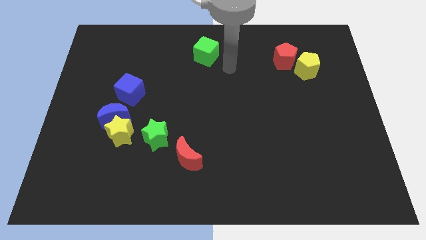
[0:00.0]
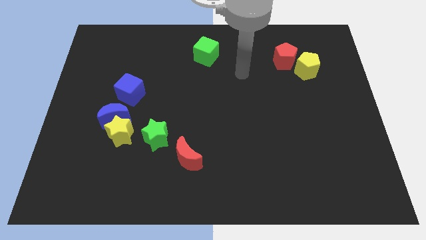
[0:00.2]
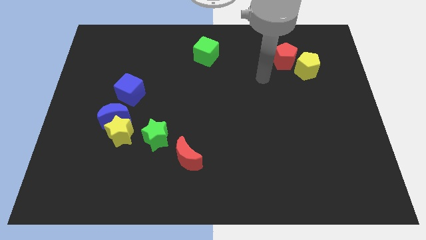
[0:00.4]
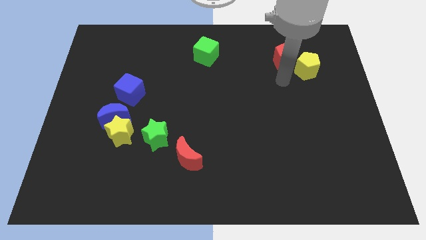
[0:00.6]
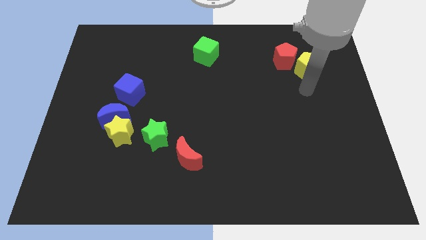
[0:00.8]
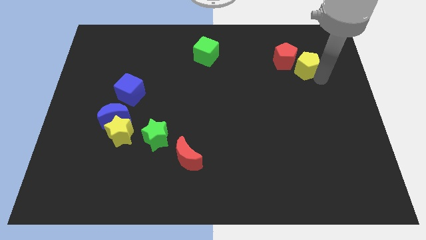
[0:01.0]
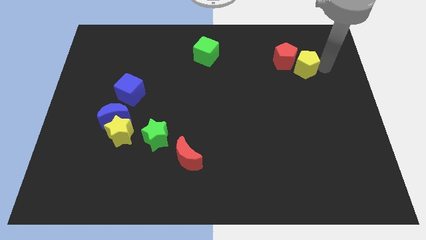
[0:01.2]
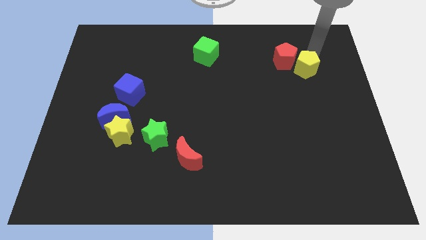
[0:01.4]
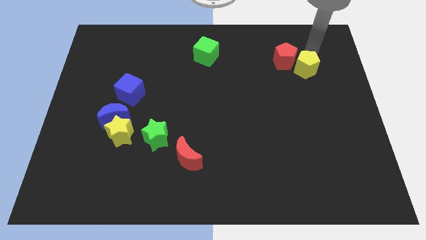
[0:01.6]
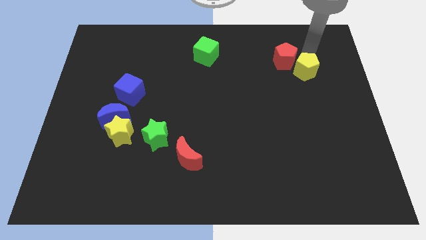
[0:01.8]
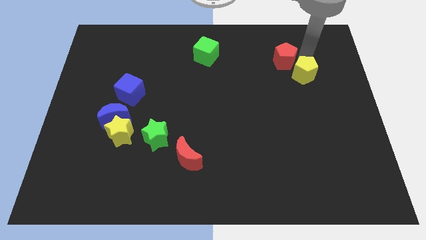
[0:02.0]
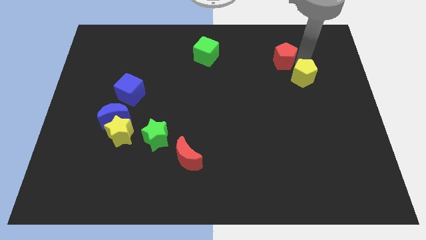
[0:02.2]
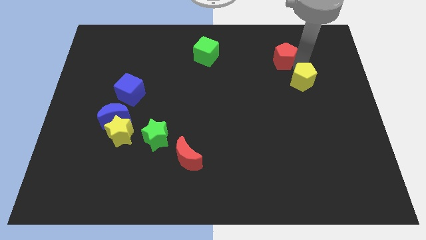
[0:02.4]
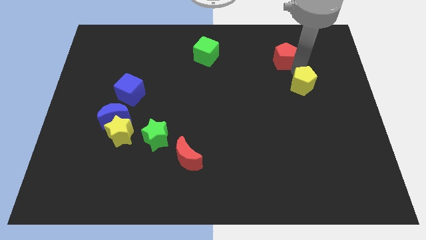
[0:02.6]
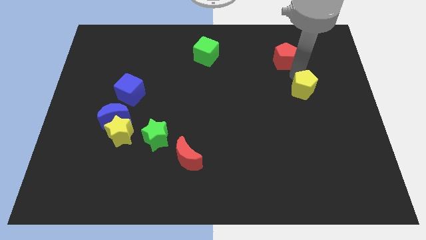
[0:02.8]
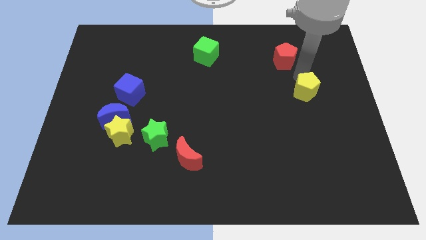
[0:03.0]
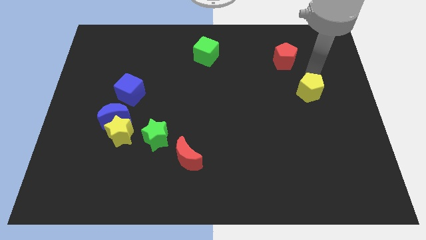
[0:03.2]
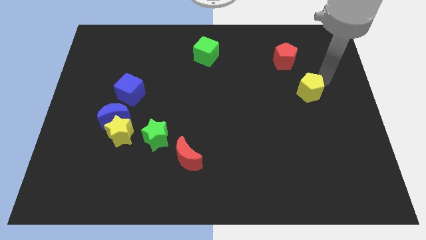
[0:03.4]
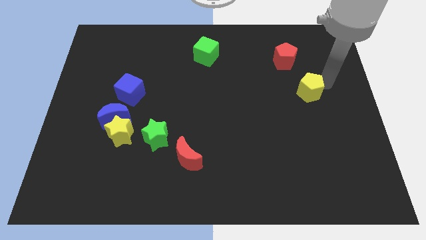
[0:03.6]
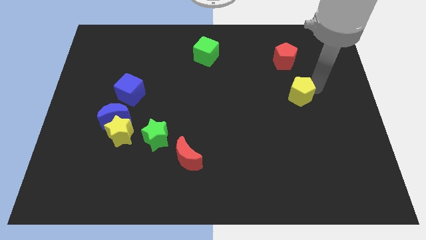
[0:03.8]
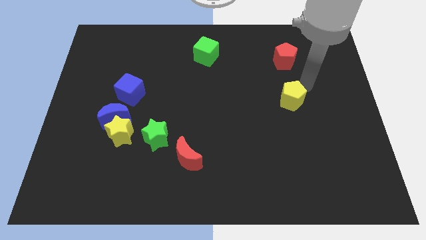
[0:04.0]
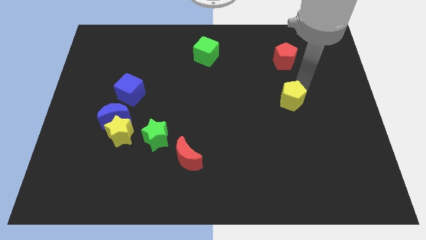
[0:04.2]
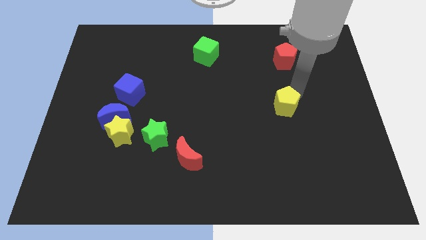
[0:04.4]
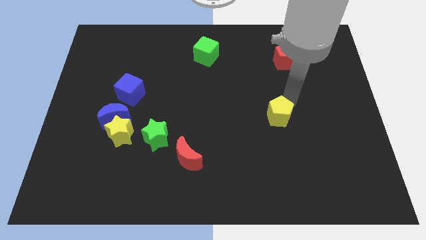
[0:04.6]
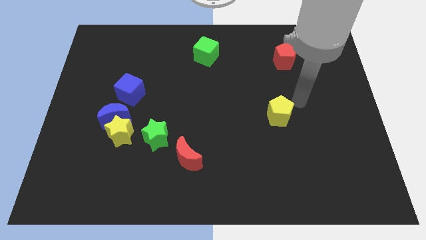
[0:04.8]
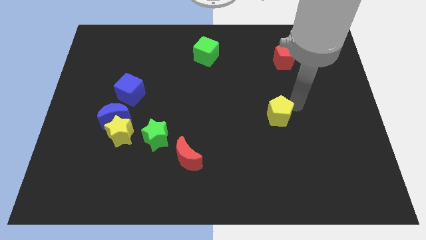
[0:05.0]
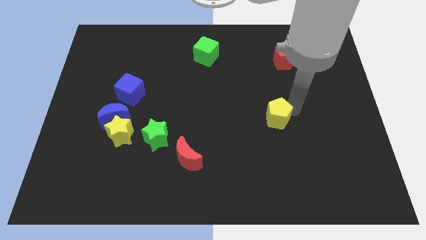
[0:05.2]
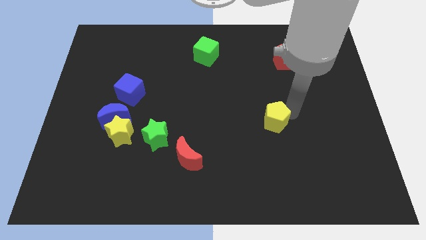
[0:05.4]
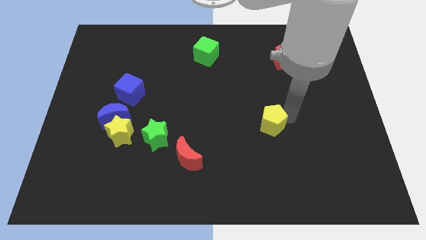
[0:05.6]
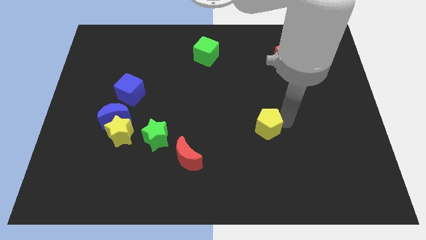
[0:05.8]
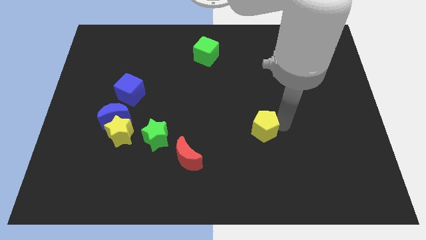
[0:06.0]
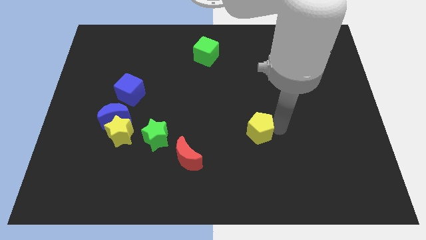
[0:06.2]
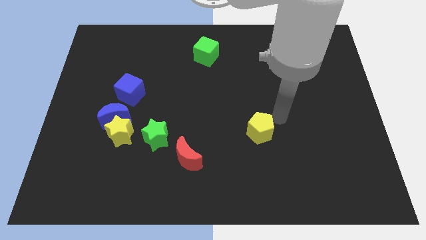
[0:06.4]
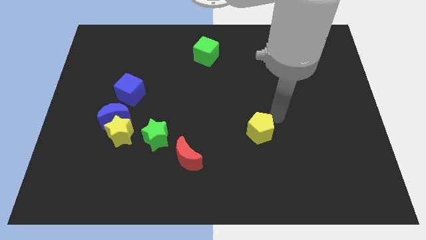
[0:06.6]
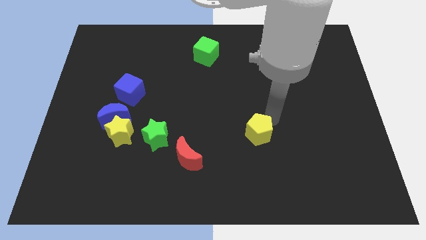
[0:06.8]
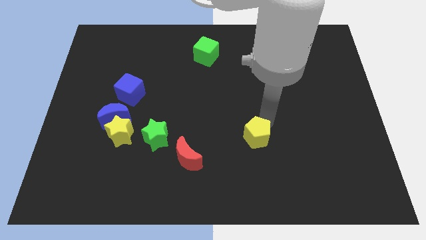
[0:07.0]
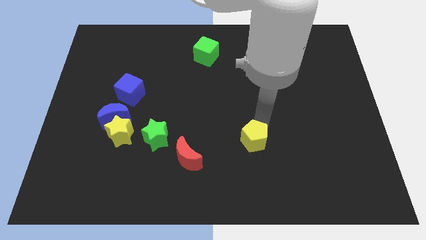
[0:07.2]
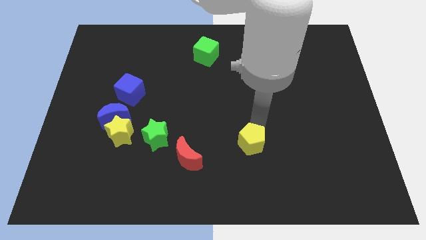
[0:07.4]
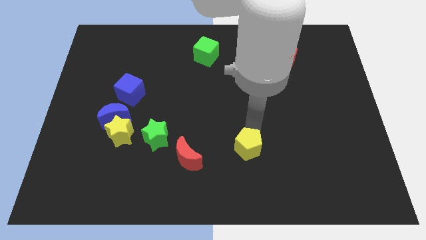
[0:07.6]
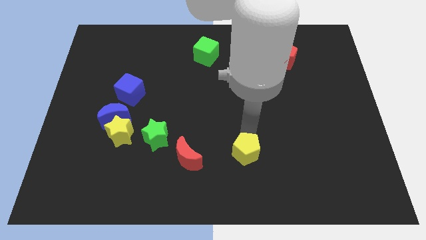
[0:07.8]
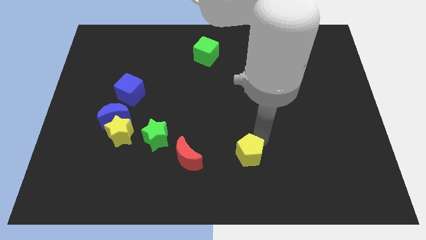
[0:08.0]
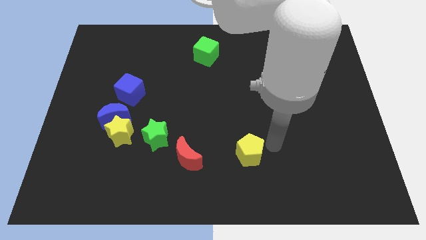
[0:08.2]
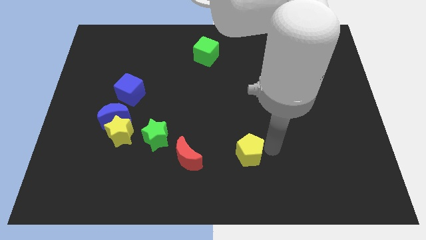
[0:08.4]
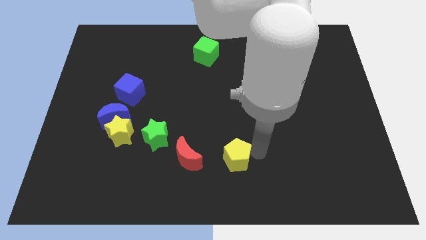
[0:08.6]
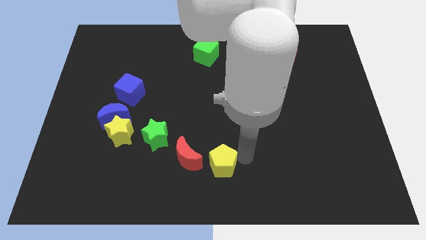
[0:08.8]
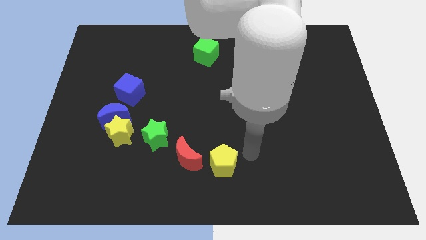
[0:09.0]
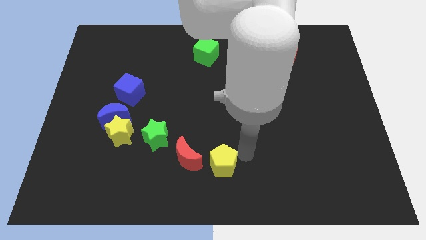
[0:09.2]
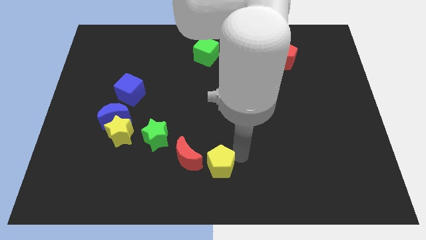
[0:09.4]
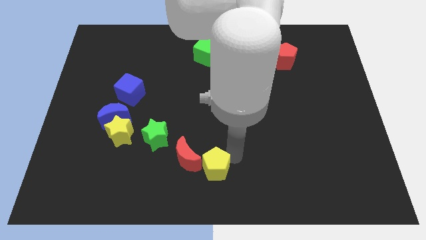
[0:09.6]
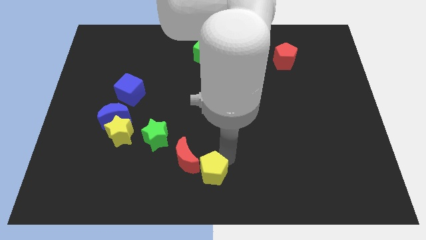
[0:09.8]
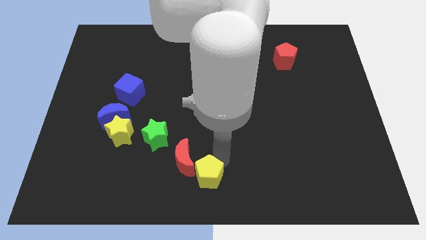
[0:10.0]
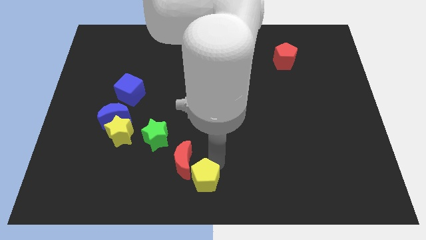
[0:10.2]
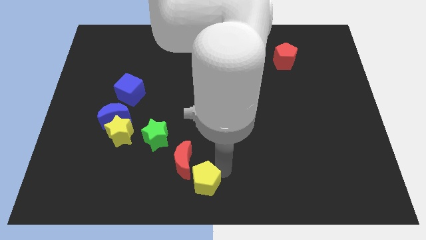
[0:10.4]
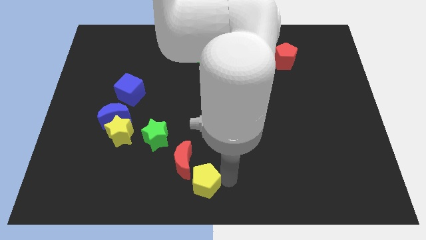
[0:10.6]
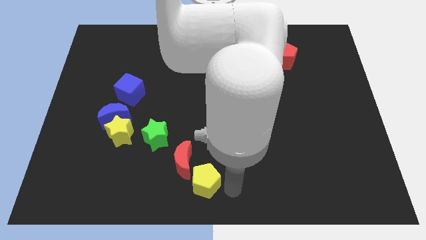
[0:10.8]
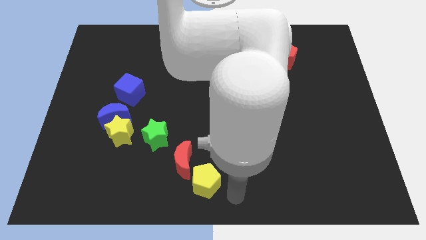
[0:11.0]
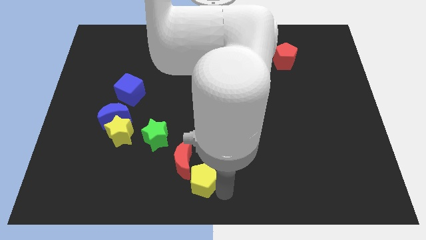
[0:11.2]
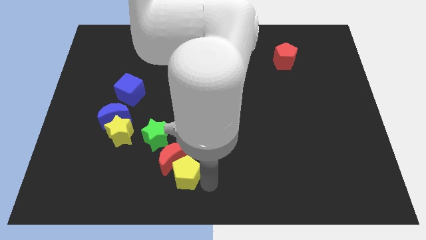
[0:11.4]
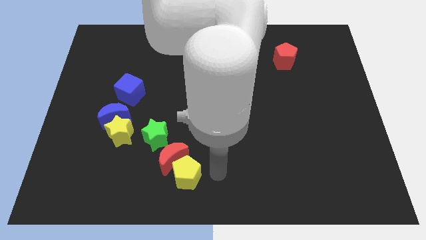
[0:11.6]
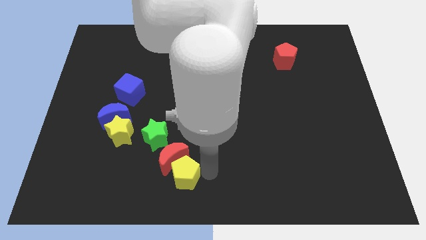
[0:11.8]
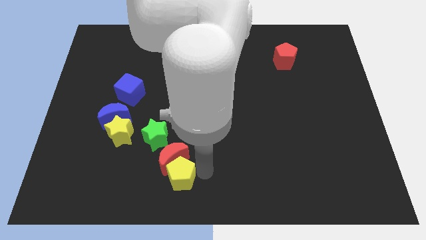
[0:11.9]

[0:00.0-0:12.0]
slide the yellow pentagon to the bottom left of the red moon
